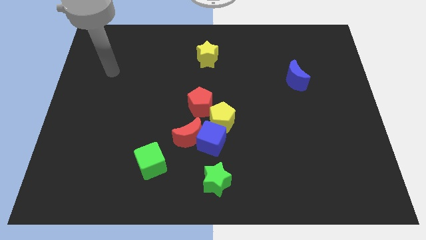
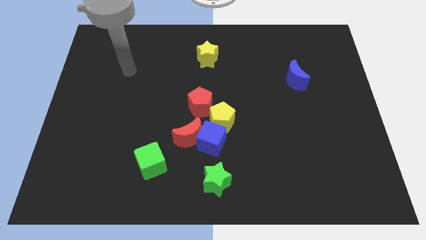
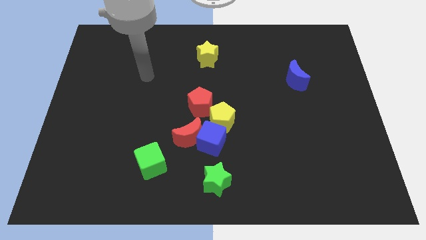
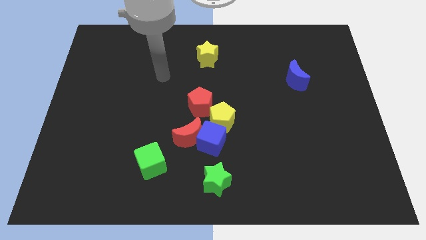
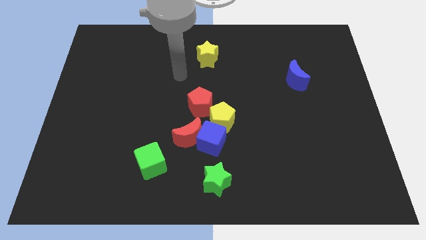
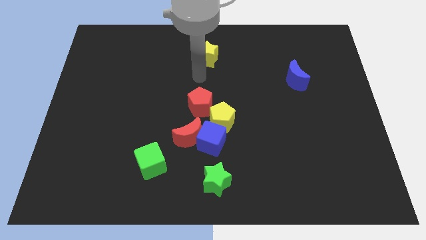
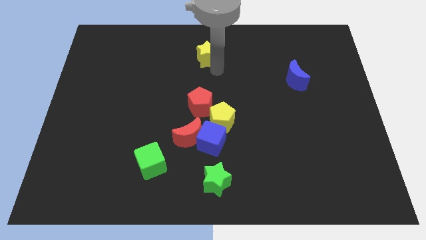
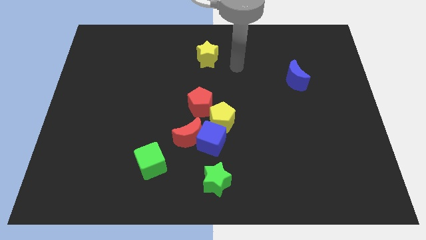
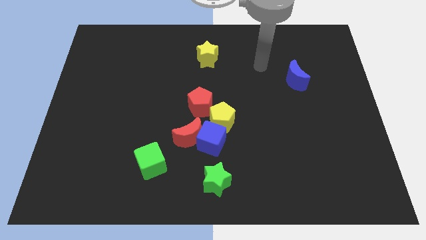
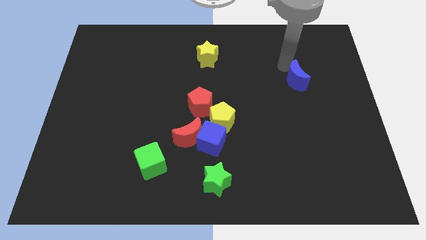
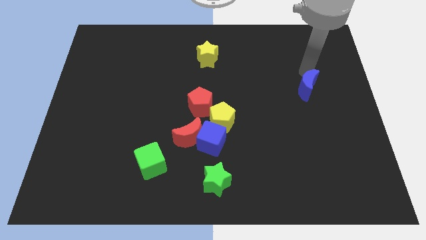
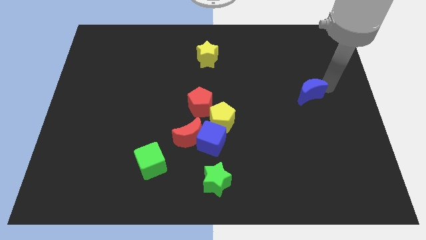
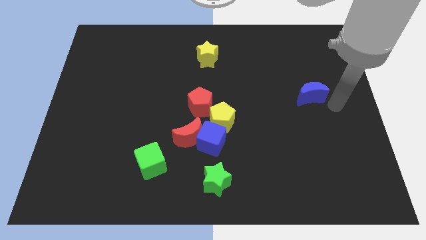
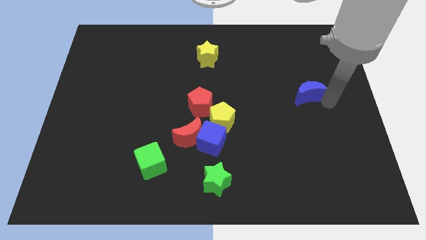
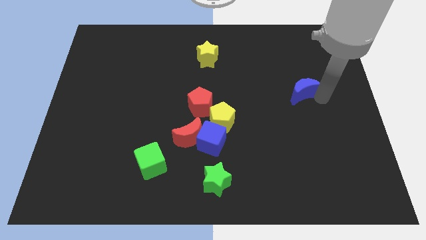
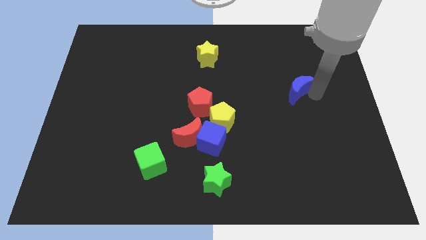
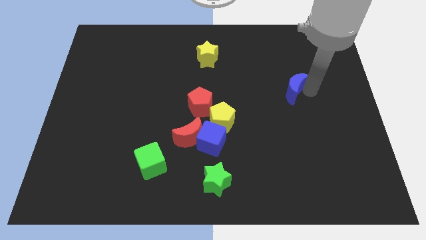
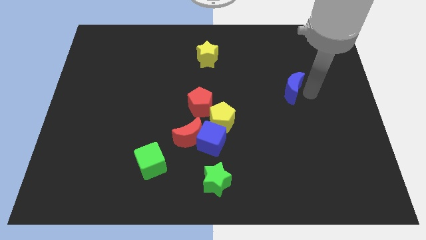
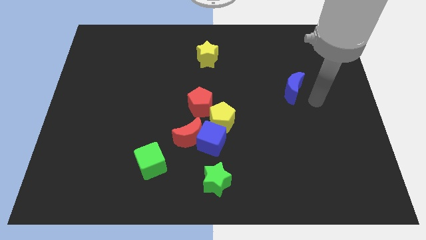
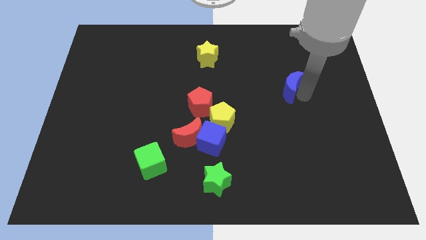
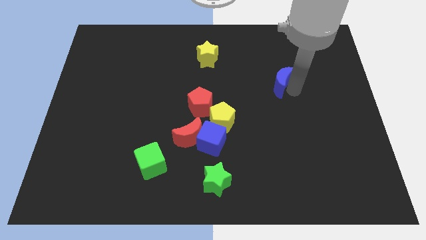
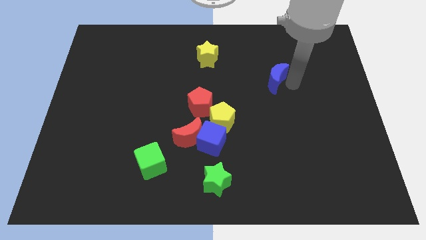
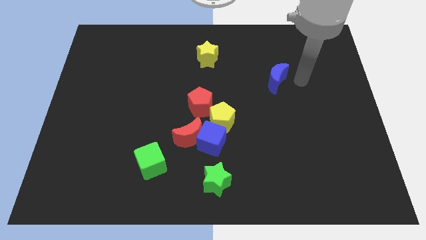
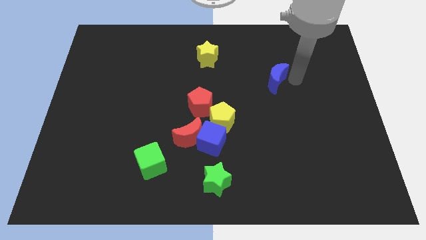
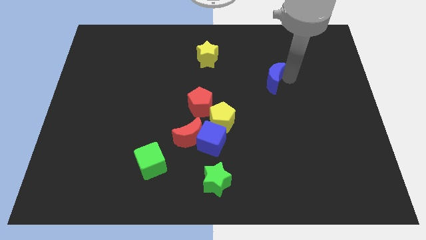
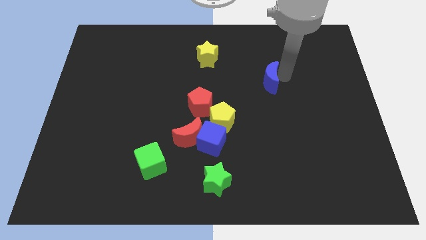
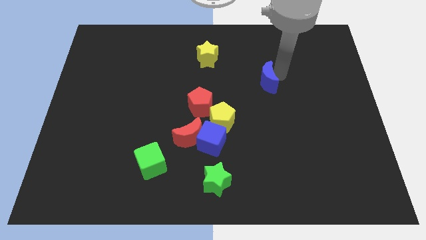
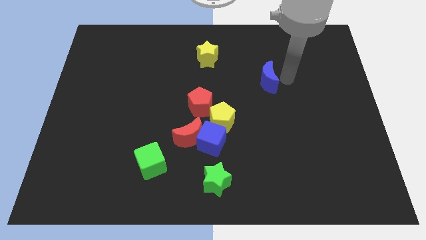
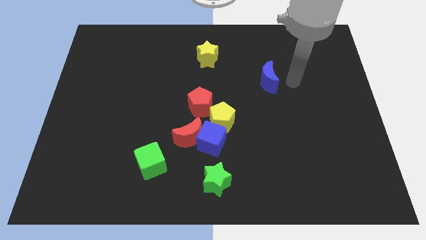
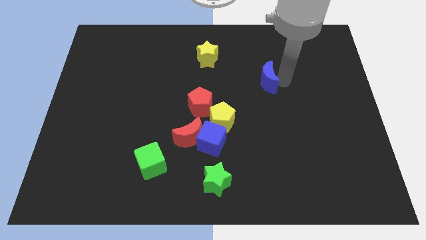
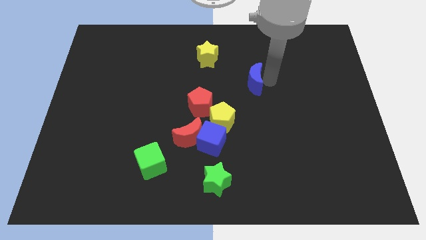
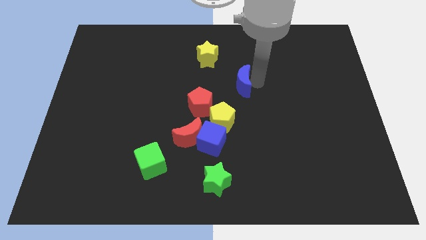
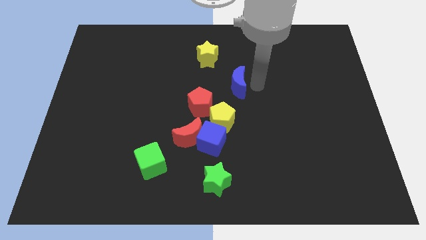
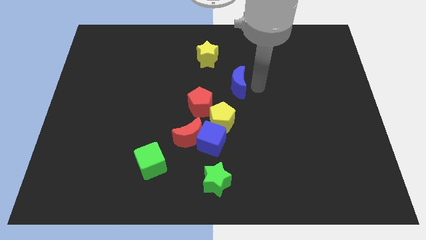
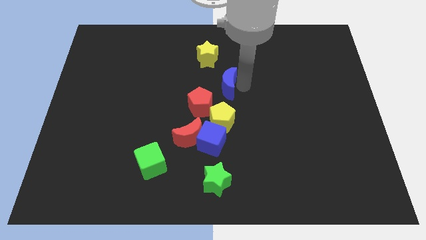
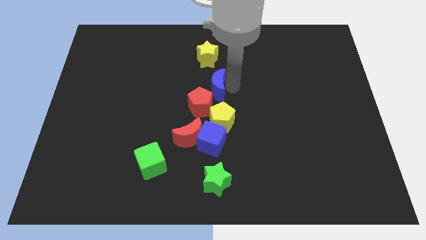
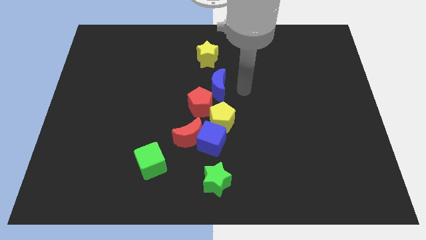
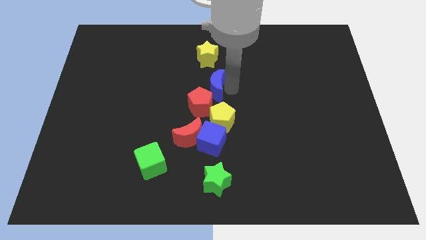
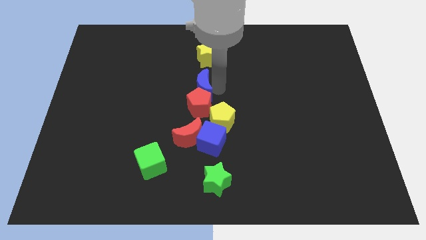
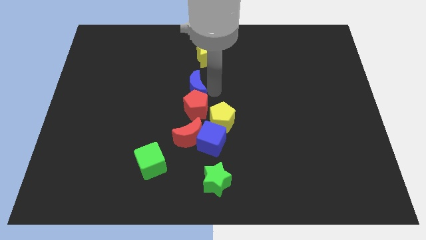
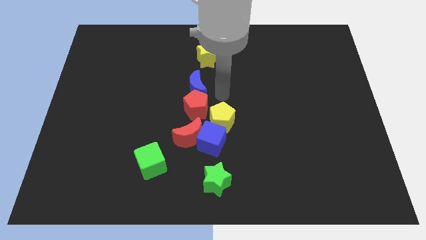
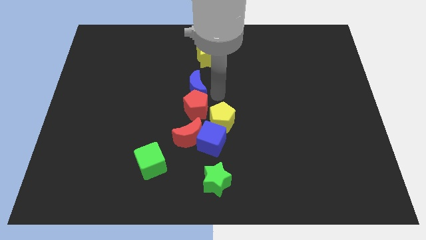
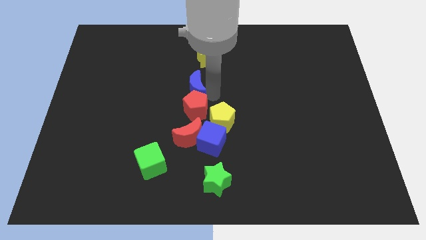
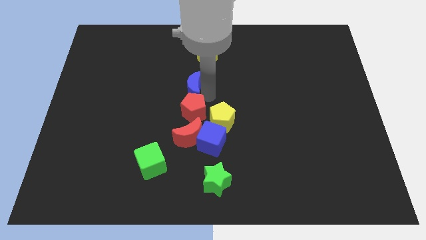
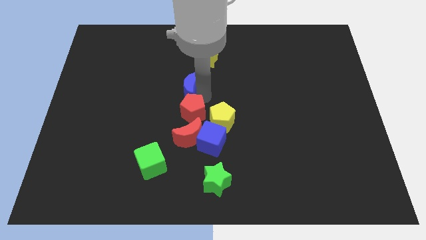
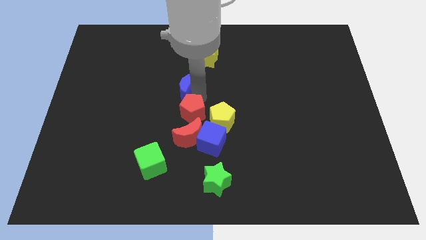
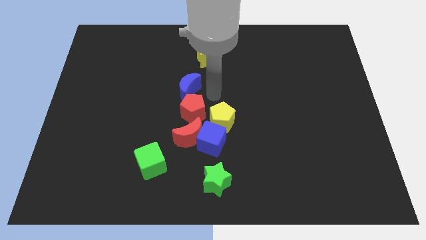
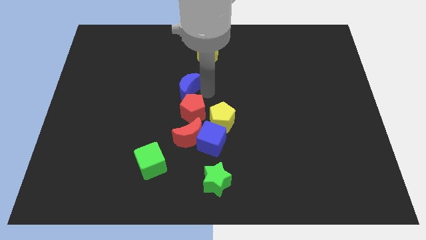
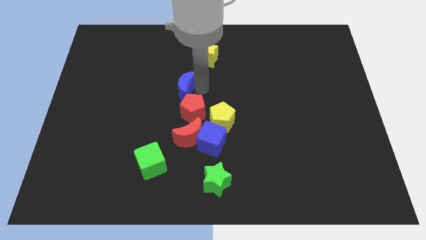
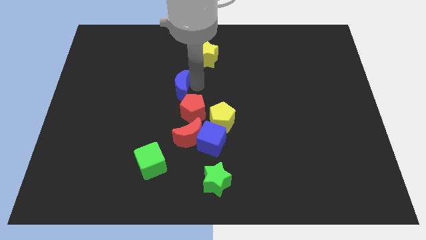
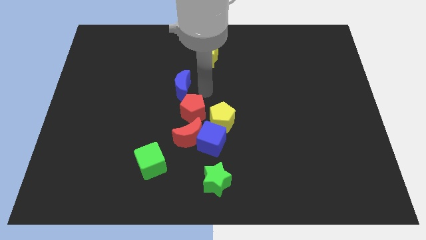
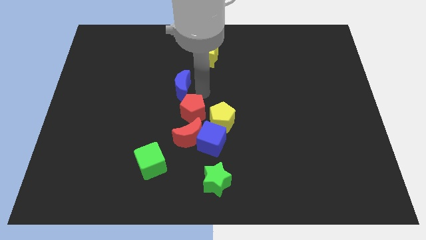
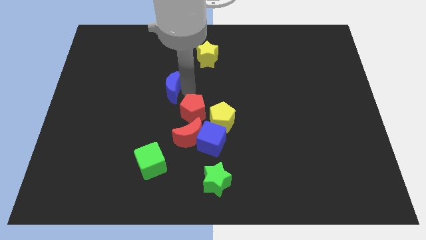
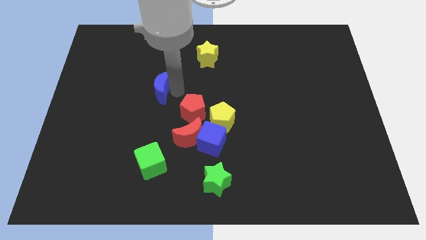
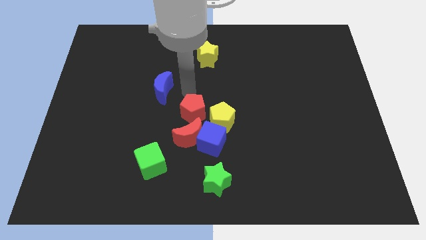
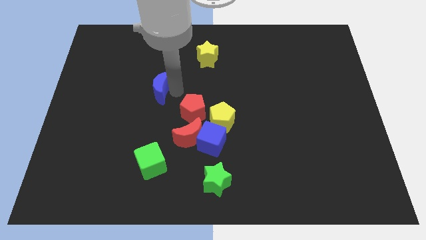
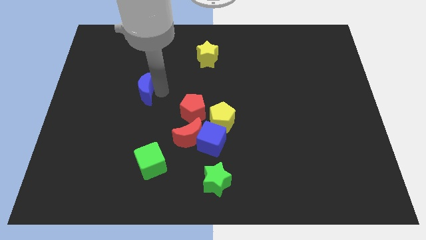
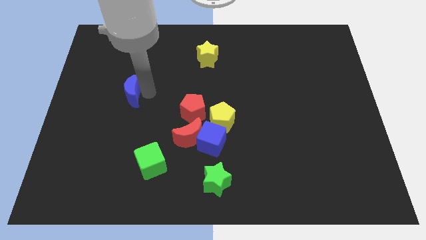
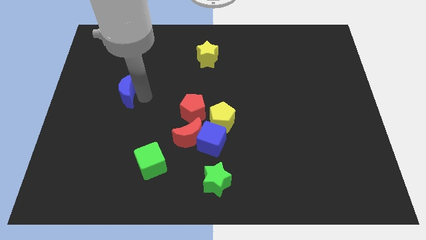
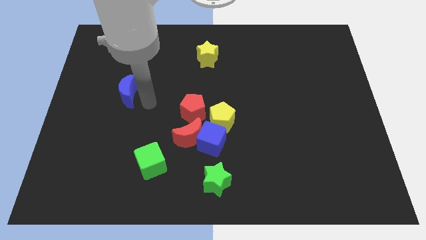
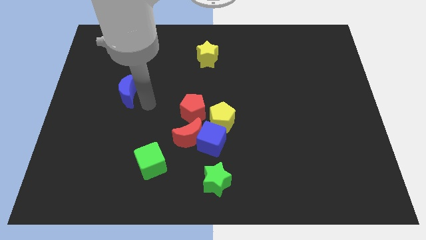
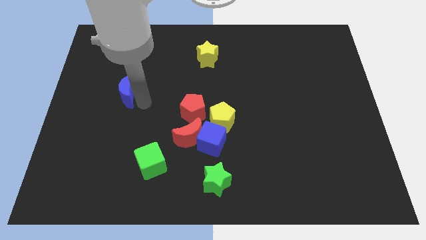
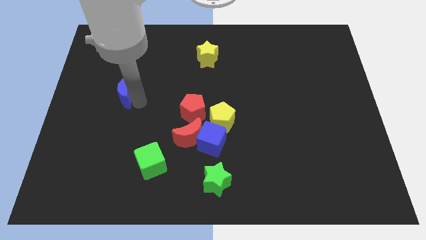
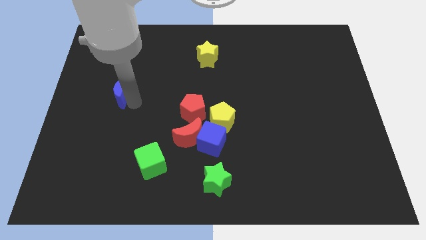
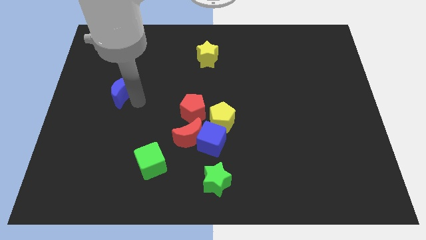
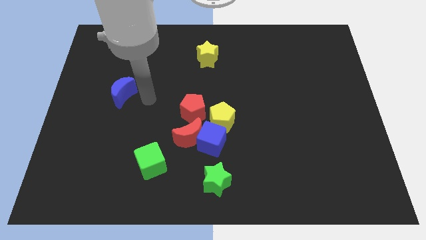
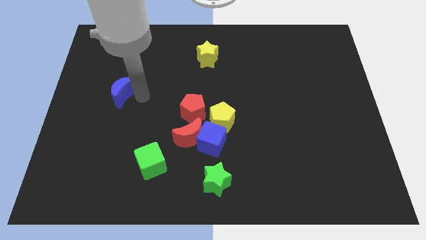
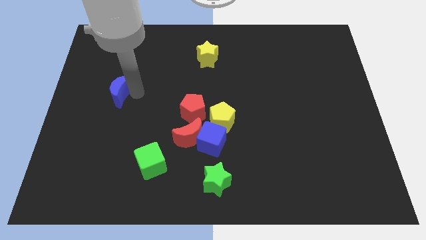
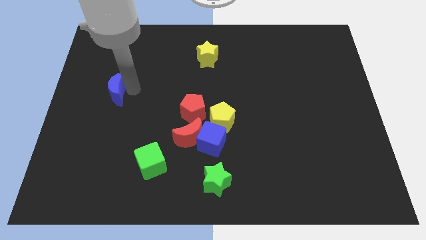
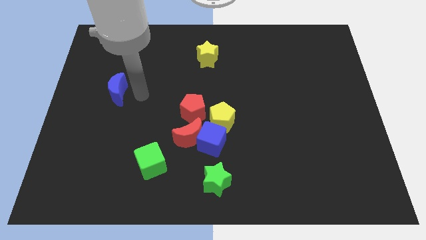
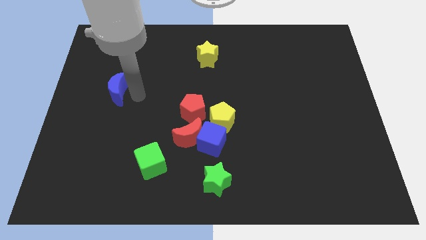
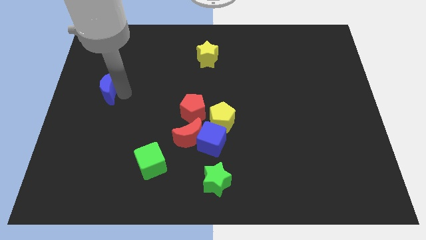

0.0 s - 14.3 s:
slide the blue moon to the left side
